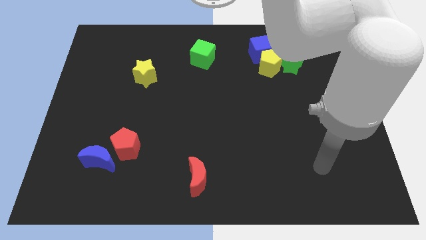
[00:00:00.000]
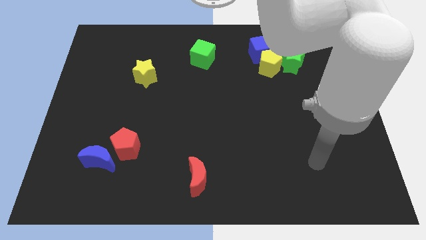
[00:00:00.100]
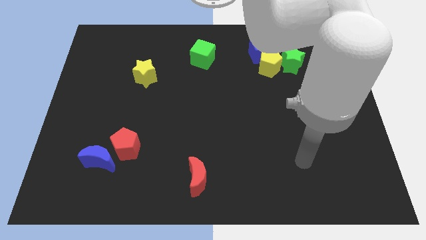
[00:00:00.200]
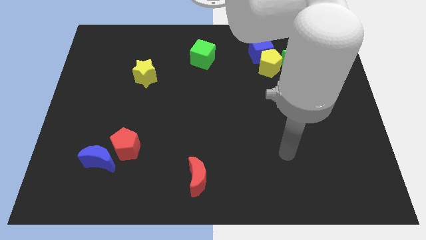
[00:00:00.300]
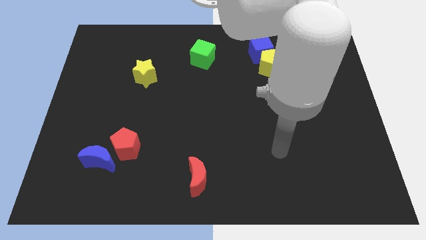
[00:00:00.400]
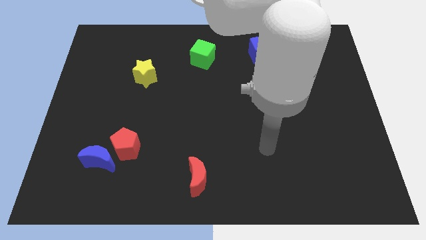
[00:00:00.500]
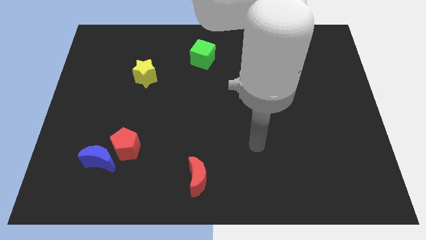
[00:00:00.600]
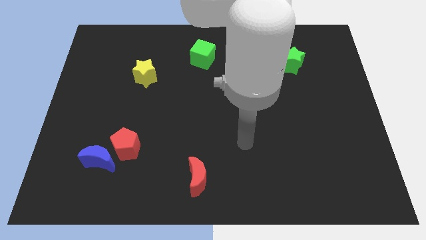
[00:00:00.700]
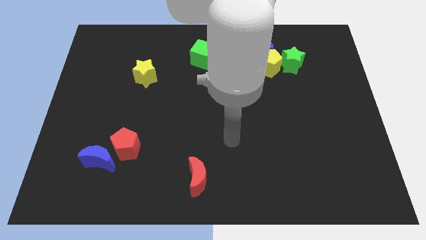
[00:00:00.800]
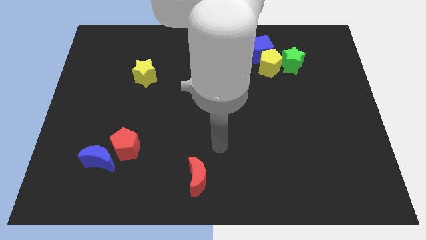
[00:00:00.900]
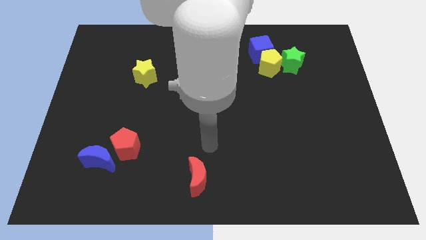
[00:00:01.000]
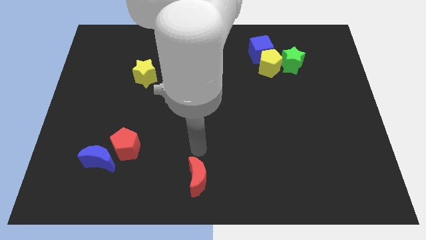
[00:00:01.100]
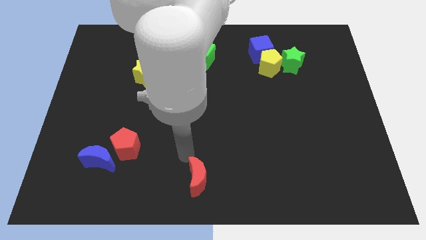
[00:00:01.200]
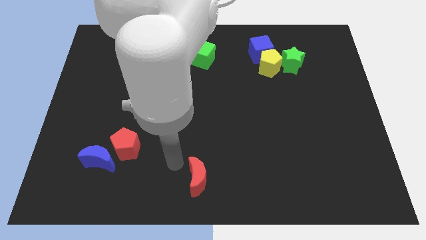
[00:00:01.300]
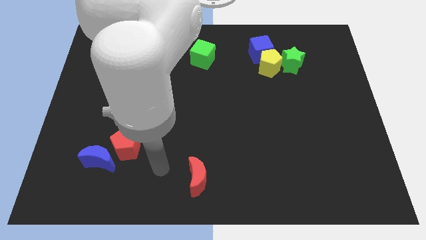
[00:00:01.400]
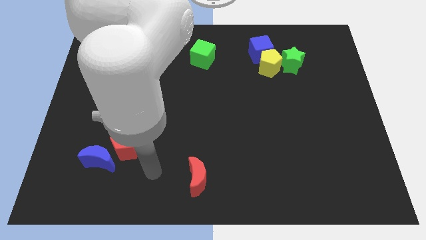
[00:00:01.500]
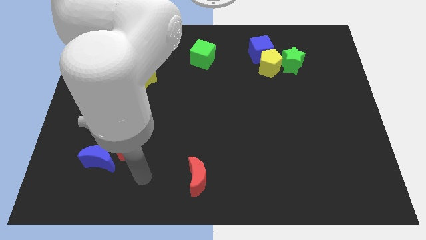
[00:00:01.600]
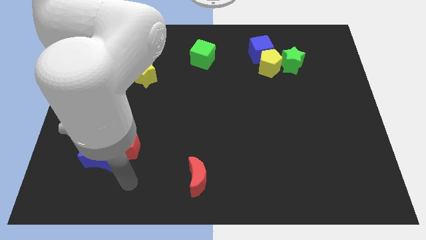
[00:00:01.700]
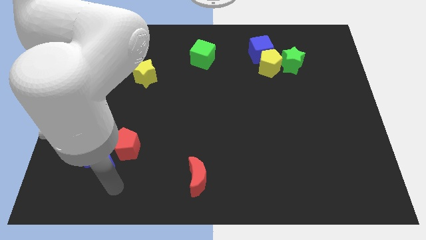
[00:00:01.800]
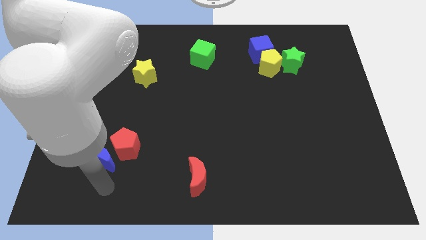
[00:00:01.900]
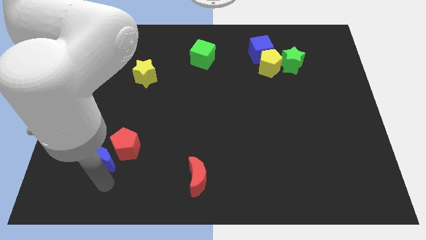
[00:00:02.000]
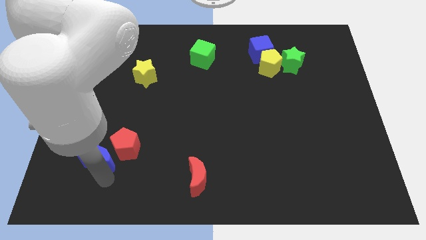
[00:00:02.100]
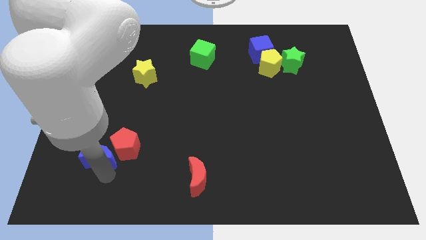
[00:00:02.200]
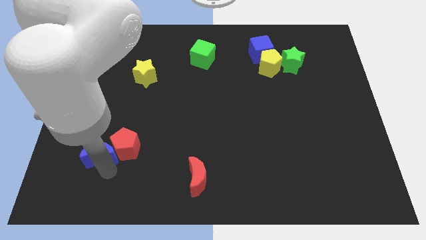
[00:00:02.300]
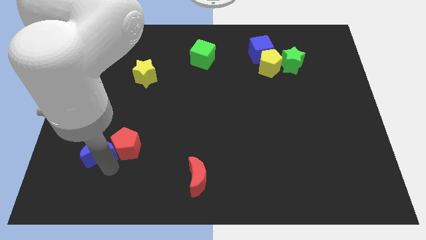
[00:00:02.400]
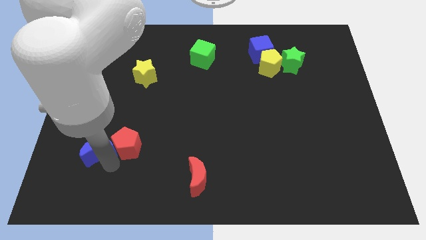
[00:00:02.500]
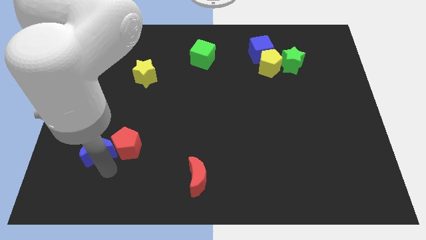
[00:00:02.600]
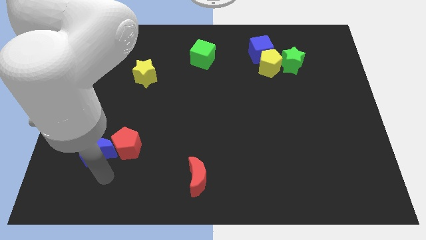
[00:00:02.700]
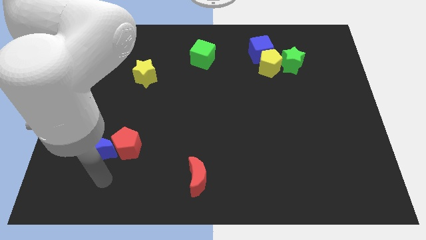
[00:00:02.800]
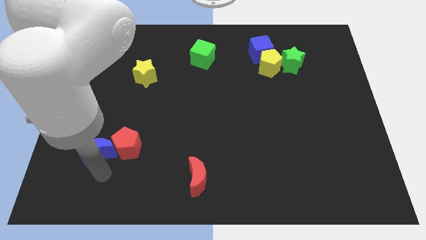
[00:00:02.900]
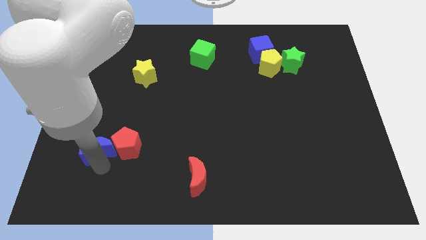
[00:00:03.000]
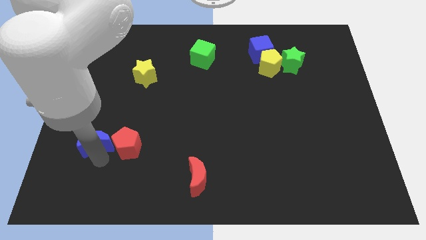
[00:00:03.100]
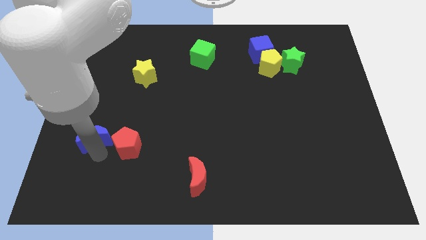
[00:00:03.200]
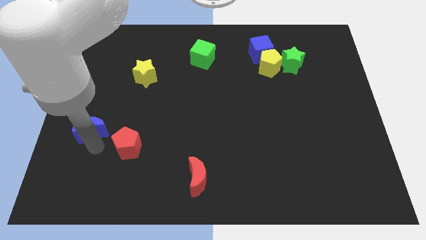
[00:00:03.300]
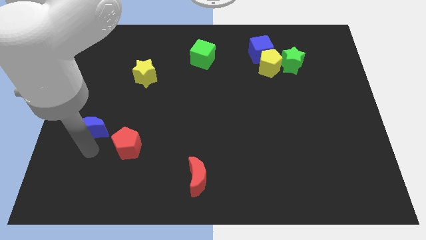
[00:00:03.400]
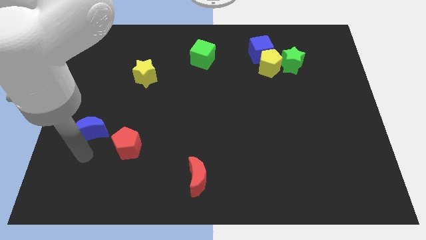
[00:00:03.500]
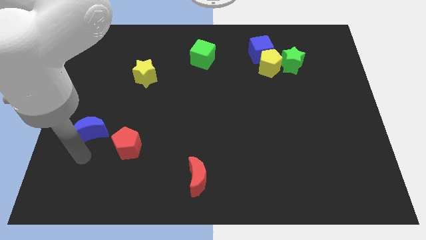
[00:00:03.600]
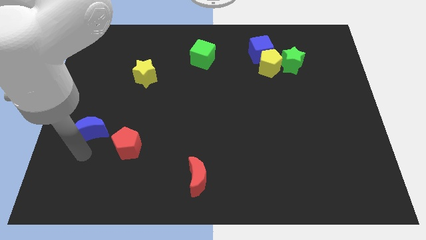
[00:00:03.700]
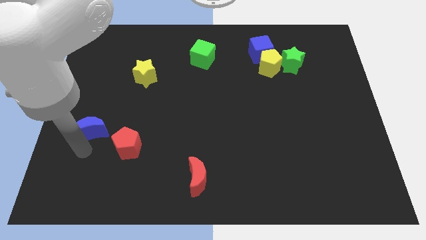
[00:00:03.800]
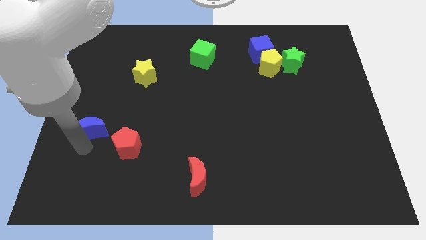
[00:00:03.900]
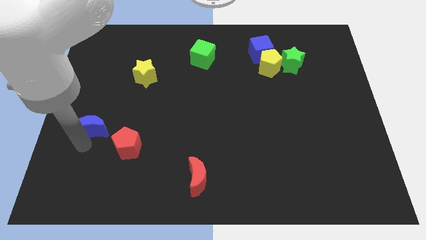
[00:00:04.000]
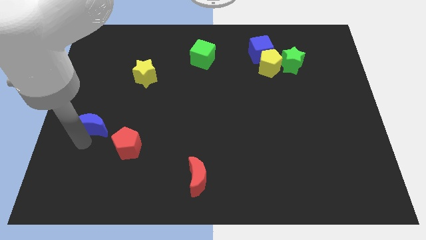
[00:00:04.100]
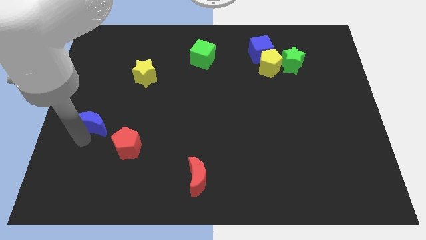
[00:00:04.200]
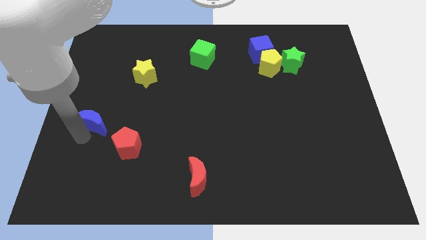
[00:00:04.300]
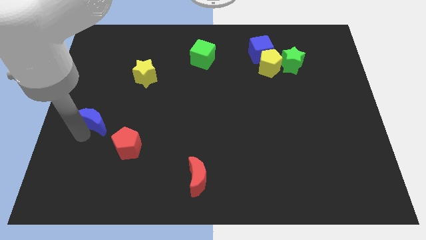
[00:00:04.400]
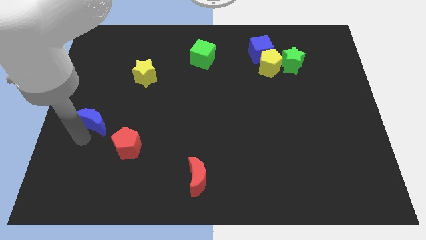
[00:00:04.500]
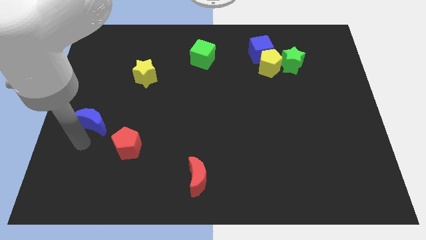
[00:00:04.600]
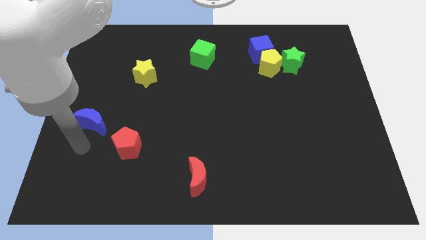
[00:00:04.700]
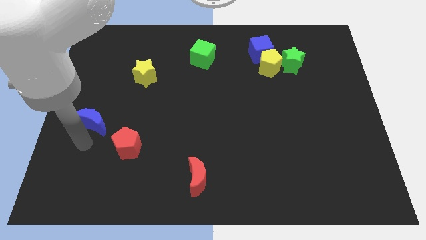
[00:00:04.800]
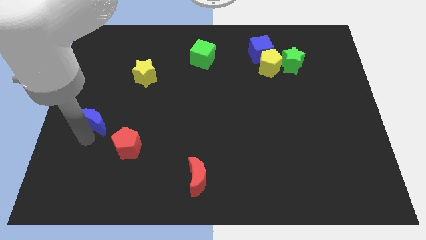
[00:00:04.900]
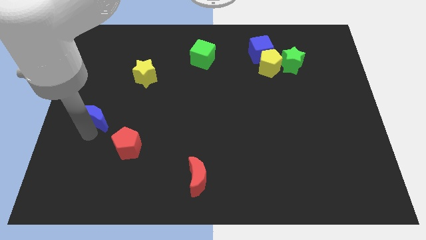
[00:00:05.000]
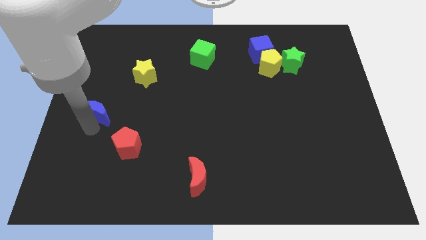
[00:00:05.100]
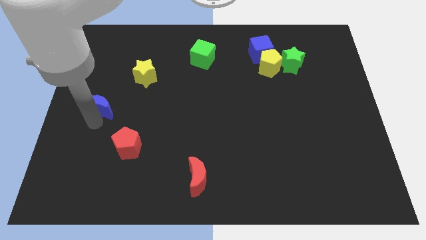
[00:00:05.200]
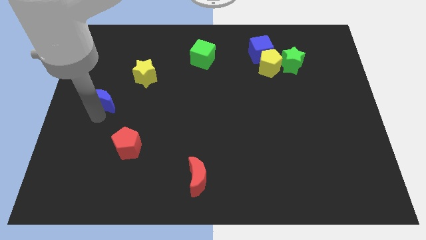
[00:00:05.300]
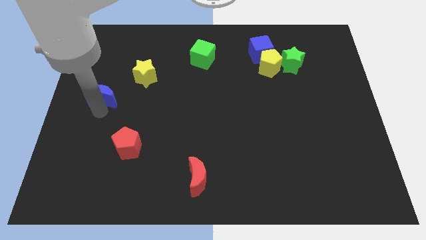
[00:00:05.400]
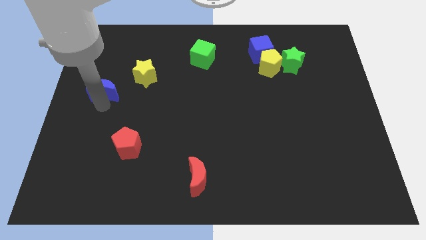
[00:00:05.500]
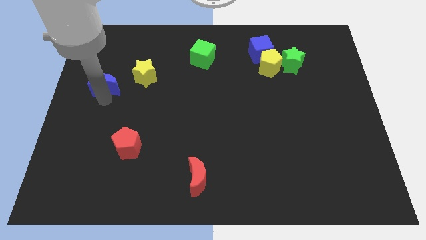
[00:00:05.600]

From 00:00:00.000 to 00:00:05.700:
put the blue moon left of the yellow star

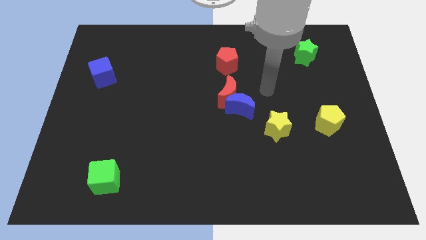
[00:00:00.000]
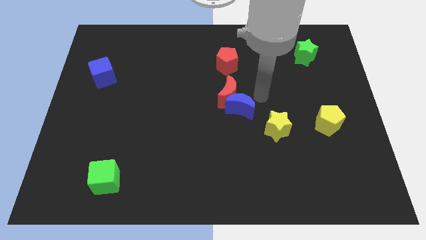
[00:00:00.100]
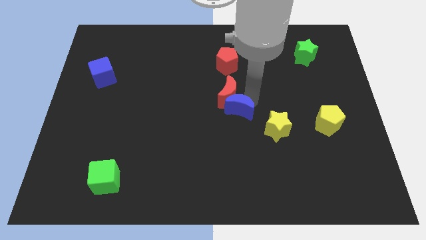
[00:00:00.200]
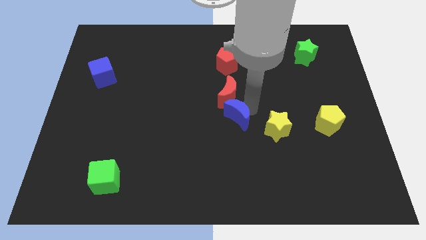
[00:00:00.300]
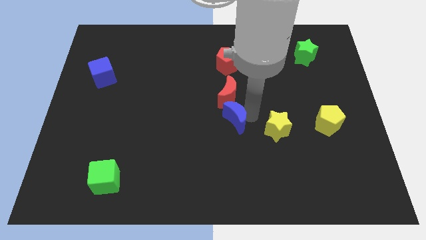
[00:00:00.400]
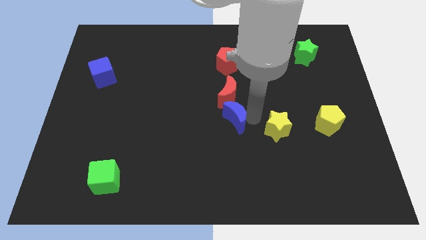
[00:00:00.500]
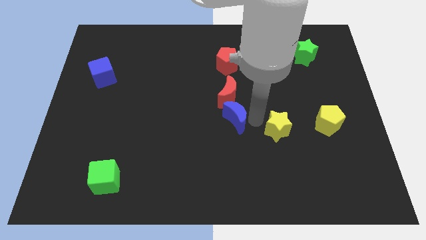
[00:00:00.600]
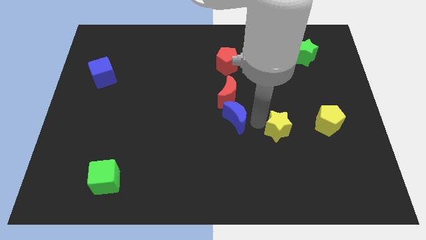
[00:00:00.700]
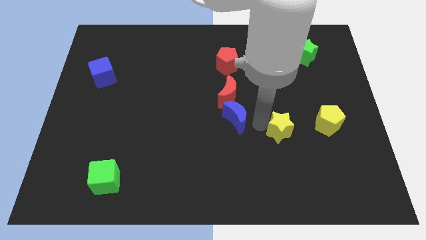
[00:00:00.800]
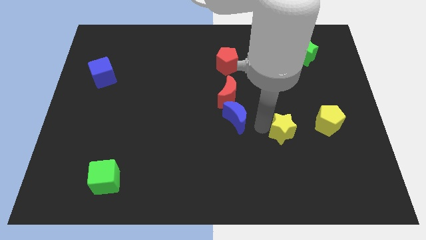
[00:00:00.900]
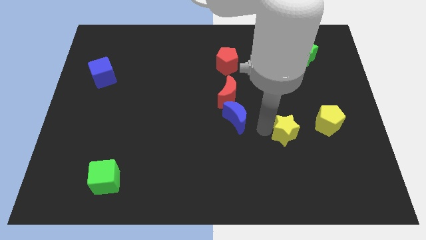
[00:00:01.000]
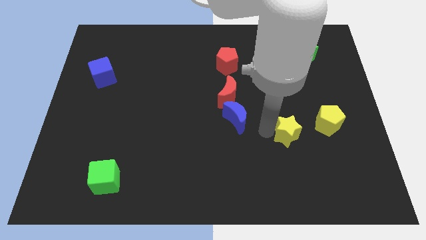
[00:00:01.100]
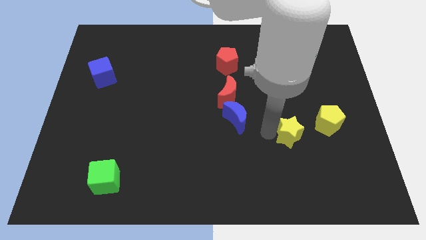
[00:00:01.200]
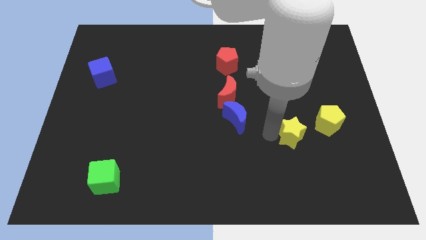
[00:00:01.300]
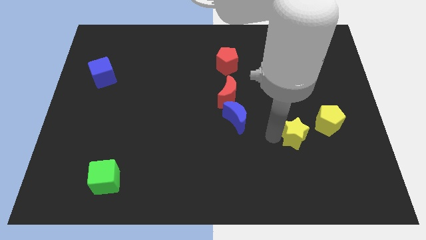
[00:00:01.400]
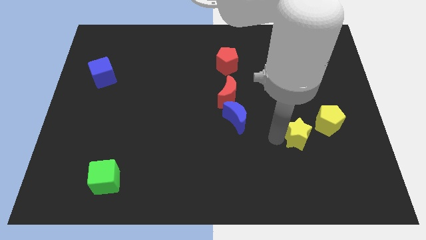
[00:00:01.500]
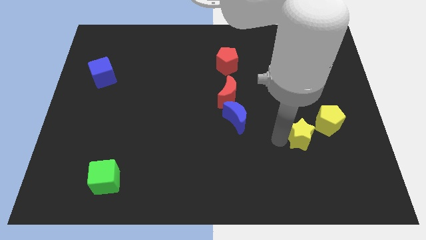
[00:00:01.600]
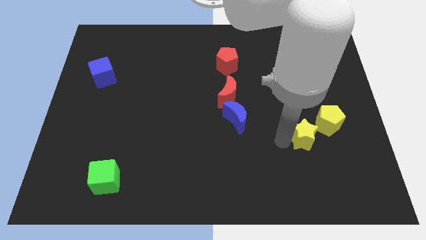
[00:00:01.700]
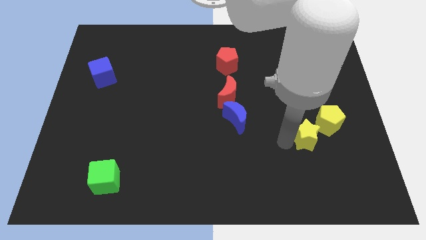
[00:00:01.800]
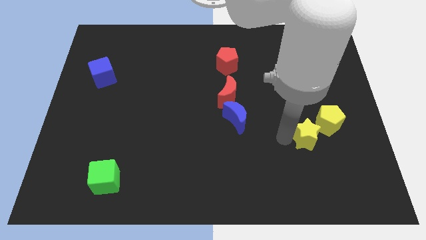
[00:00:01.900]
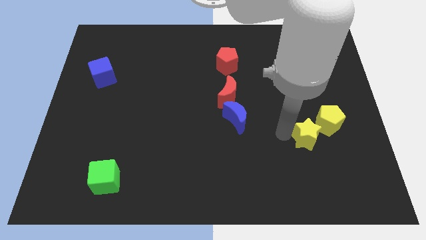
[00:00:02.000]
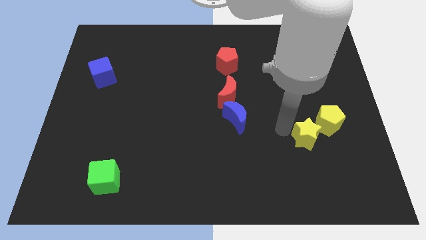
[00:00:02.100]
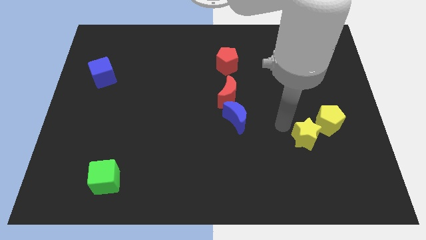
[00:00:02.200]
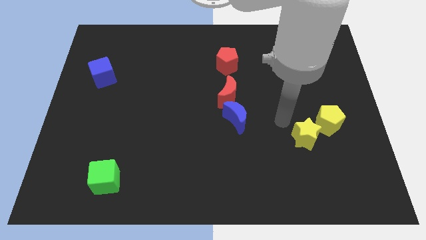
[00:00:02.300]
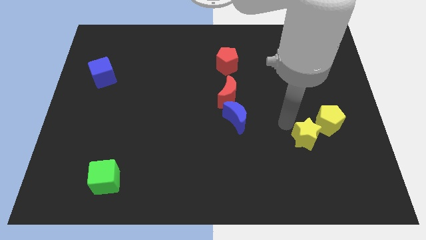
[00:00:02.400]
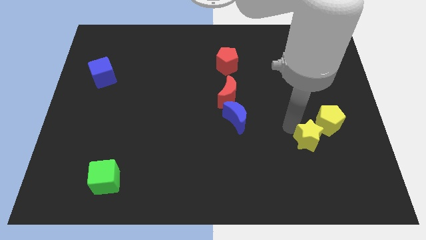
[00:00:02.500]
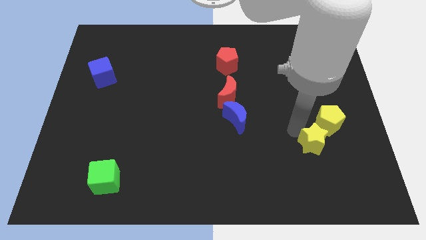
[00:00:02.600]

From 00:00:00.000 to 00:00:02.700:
slide the yellow star to the bottom of the yellow pentagon
